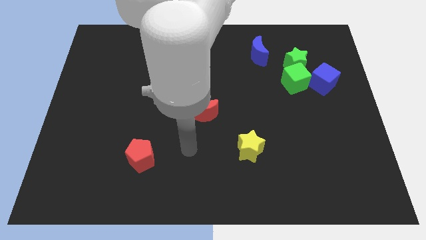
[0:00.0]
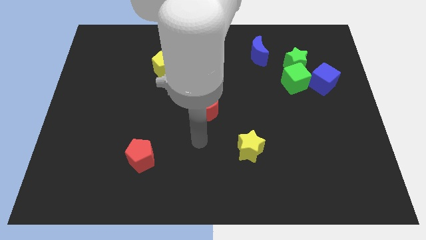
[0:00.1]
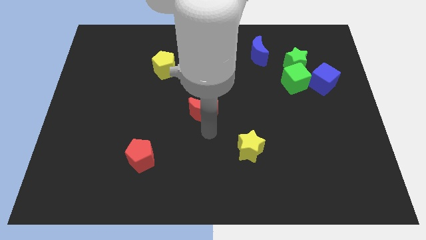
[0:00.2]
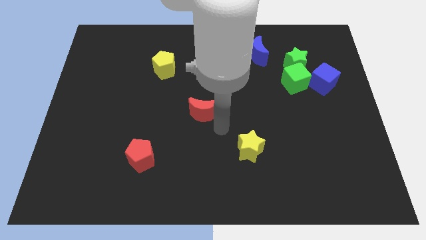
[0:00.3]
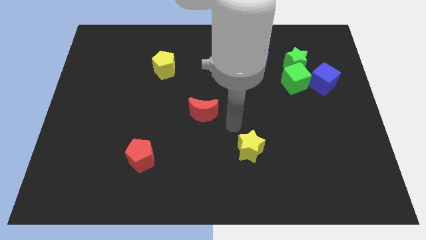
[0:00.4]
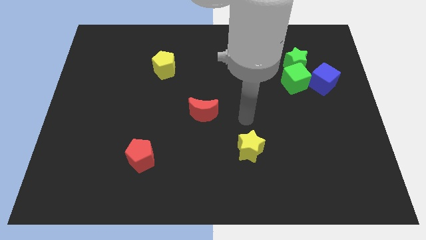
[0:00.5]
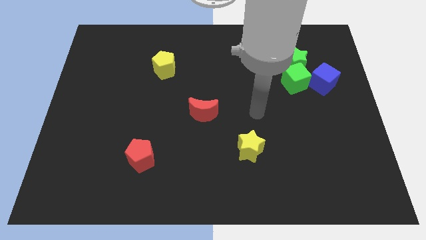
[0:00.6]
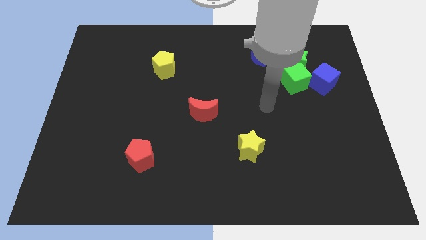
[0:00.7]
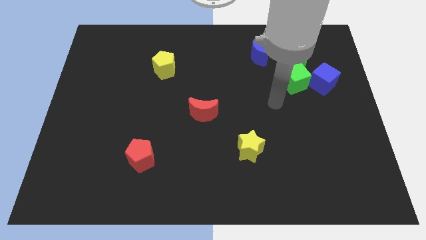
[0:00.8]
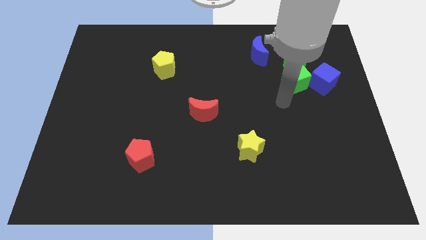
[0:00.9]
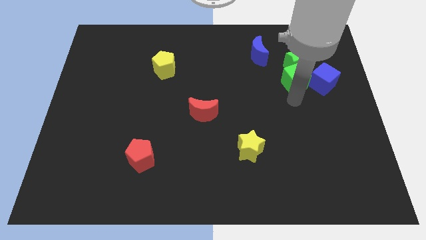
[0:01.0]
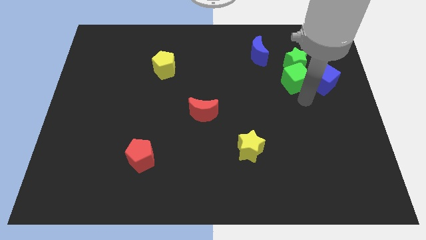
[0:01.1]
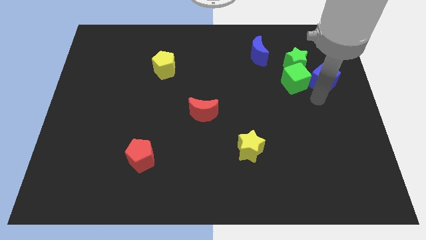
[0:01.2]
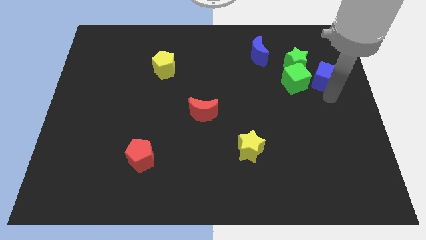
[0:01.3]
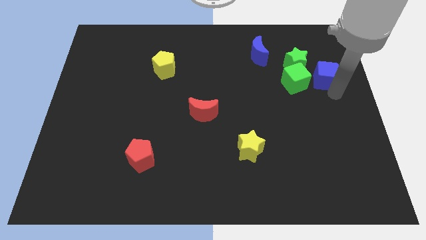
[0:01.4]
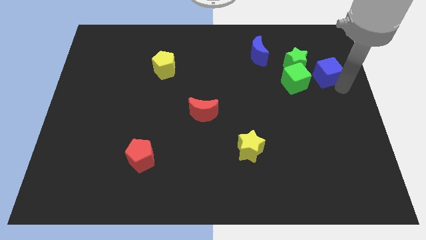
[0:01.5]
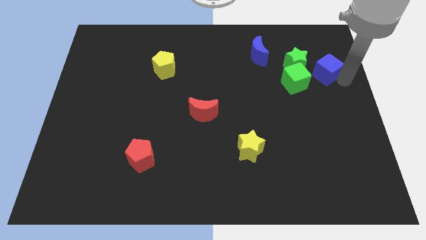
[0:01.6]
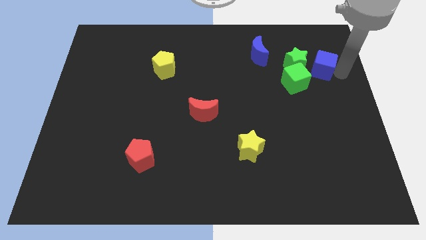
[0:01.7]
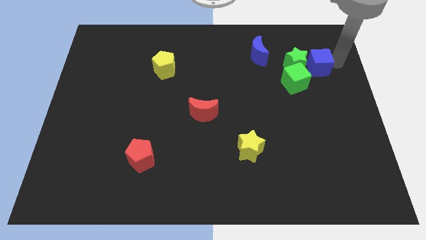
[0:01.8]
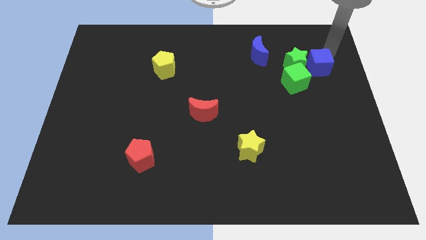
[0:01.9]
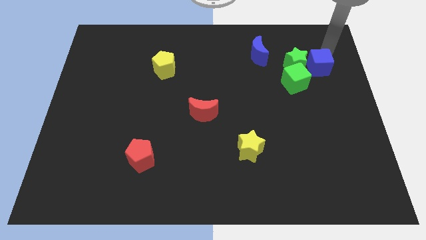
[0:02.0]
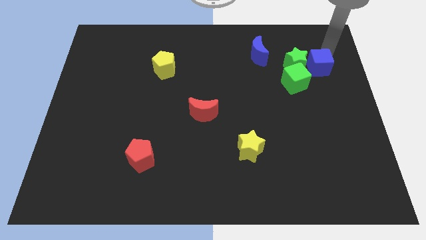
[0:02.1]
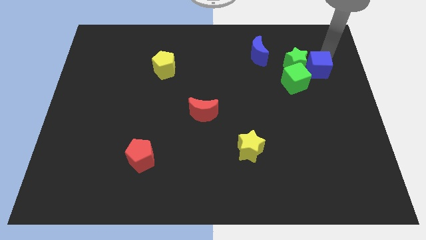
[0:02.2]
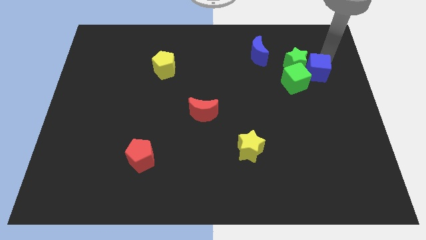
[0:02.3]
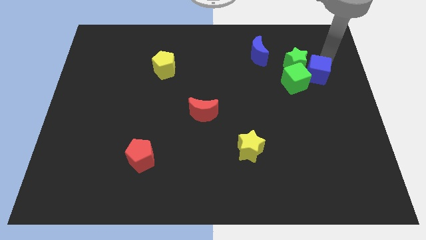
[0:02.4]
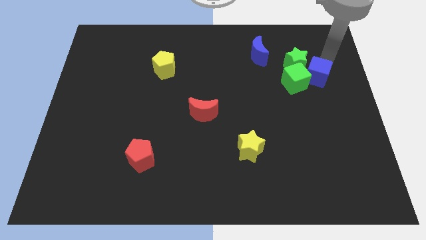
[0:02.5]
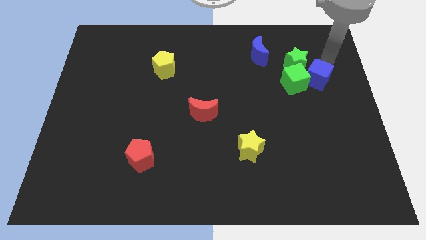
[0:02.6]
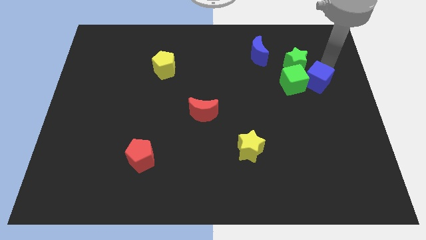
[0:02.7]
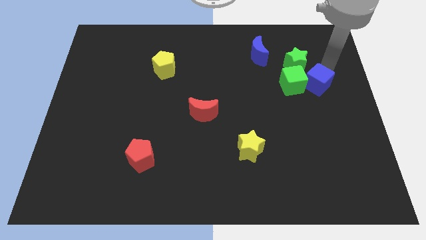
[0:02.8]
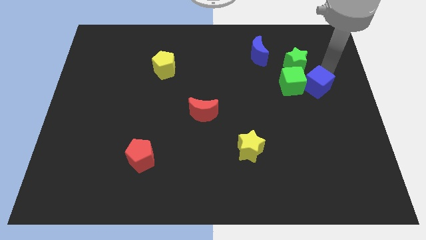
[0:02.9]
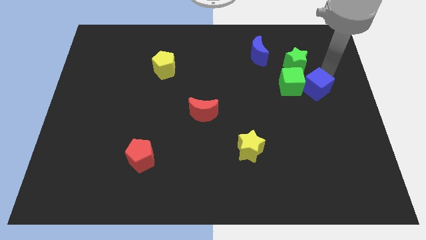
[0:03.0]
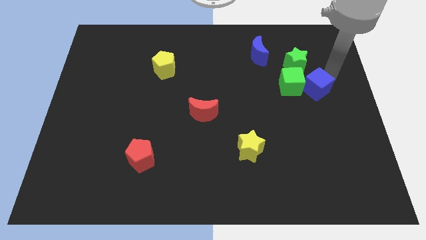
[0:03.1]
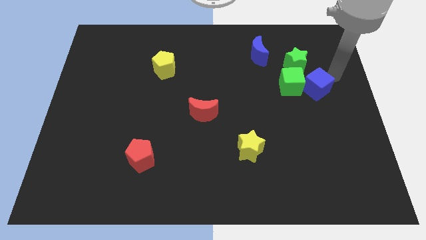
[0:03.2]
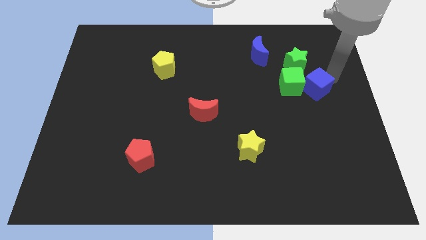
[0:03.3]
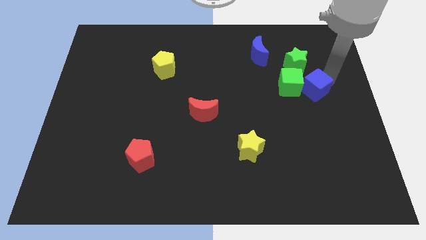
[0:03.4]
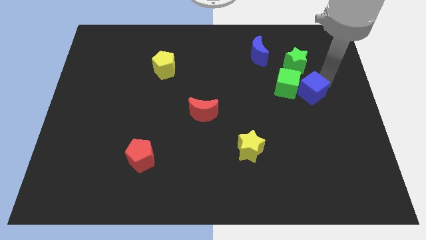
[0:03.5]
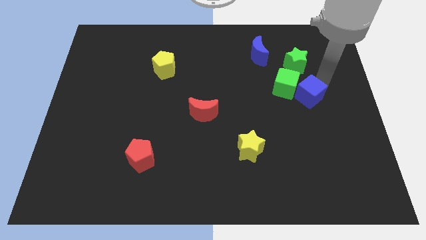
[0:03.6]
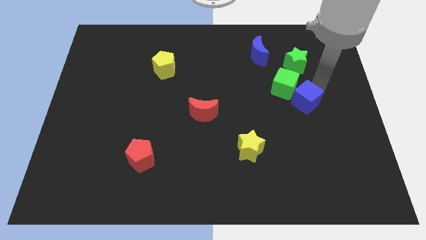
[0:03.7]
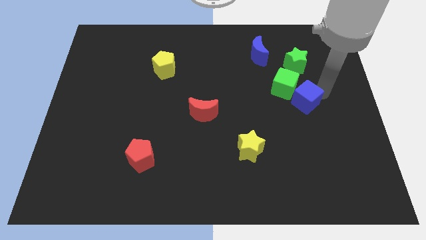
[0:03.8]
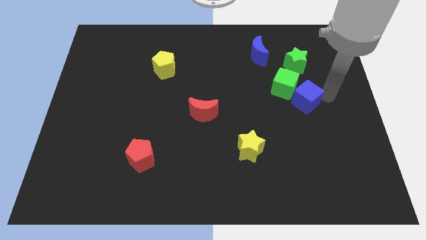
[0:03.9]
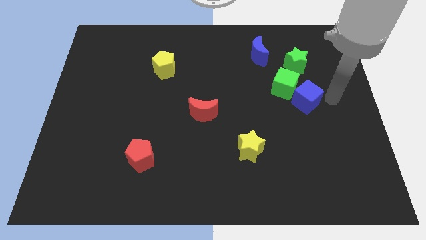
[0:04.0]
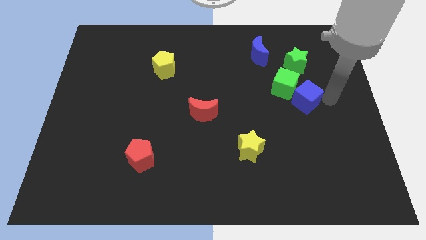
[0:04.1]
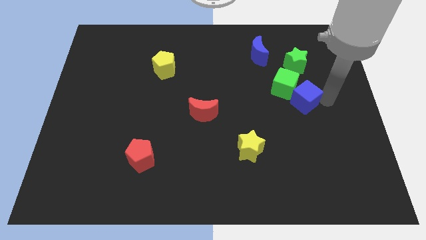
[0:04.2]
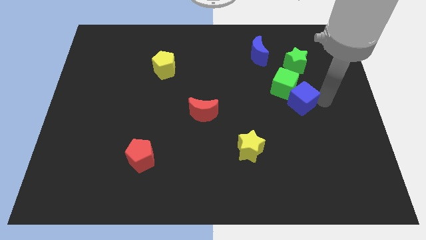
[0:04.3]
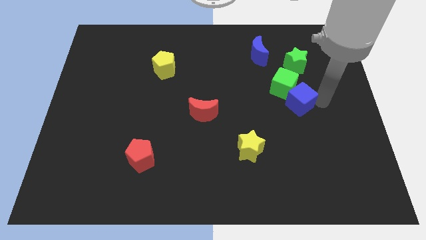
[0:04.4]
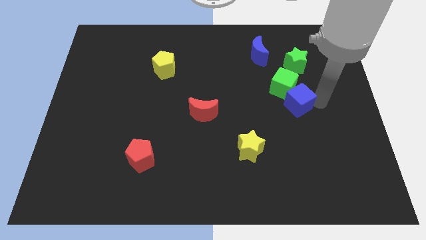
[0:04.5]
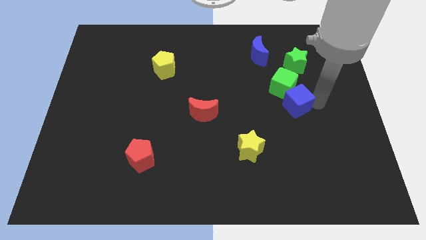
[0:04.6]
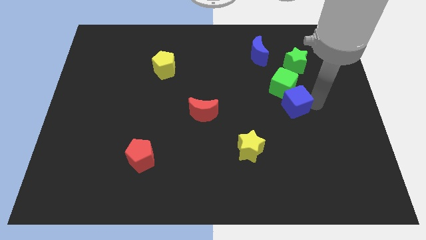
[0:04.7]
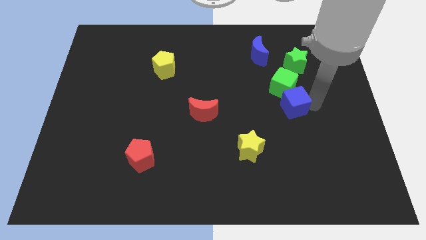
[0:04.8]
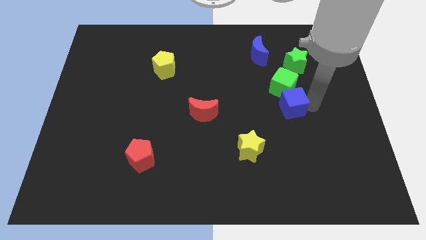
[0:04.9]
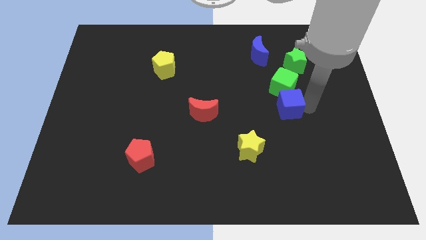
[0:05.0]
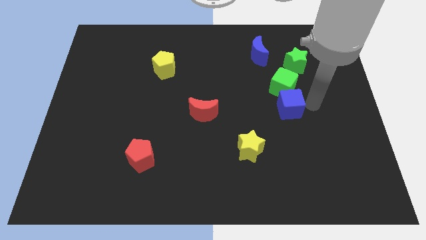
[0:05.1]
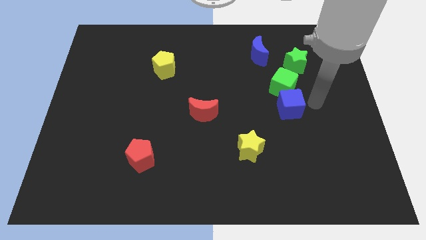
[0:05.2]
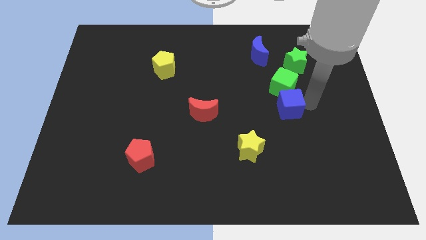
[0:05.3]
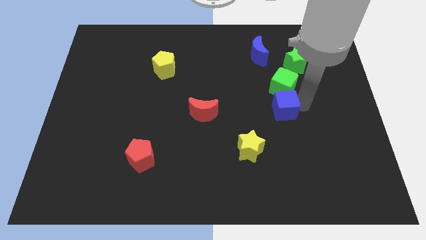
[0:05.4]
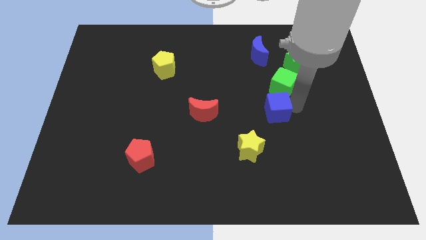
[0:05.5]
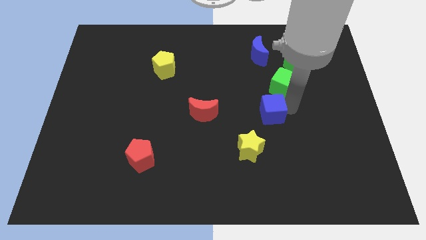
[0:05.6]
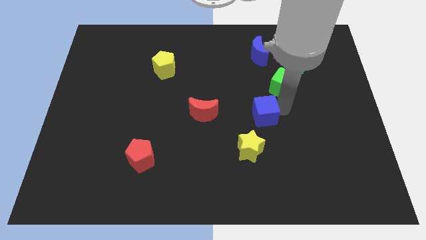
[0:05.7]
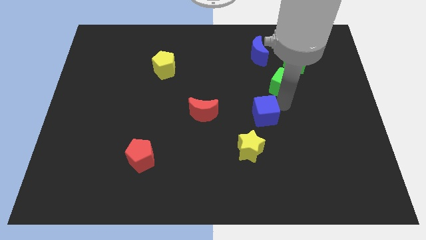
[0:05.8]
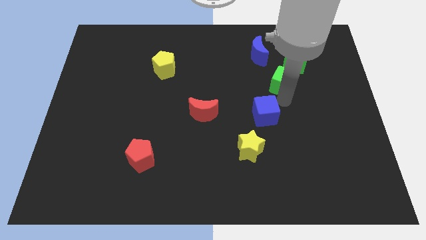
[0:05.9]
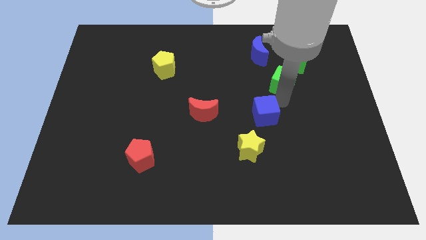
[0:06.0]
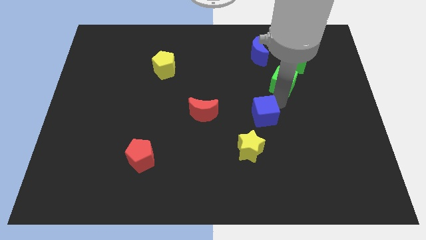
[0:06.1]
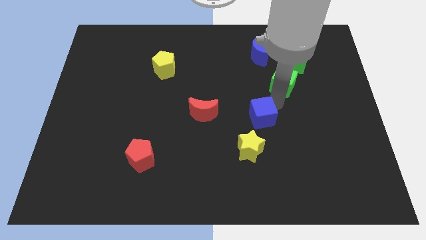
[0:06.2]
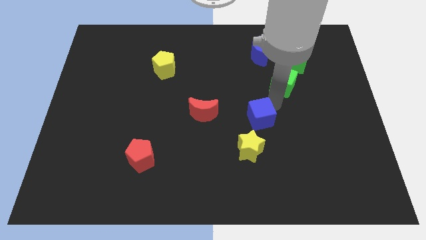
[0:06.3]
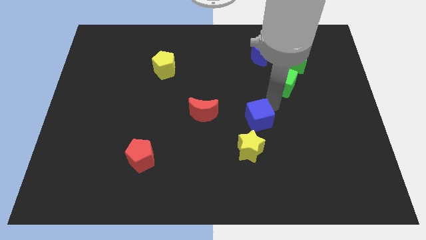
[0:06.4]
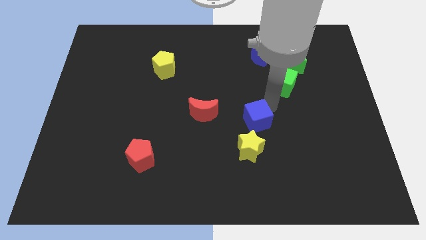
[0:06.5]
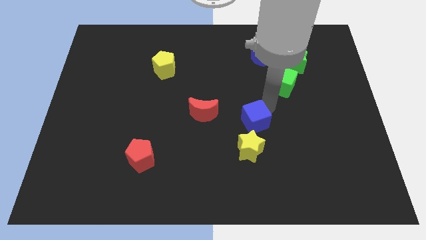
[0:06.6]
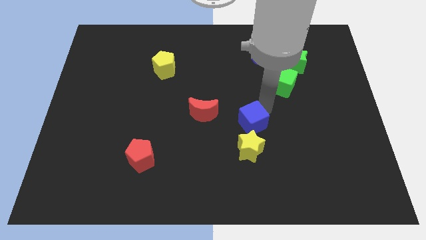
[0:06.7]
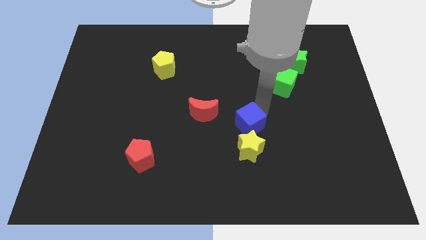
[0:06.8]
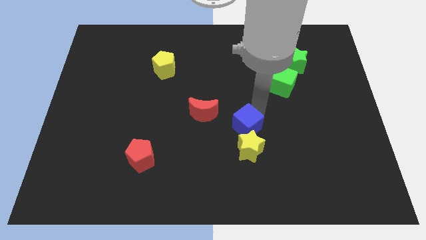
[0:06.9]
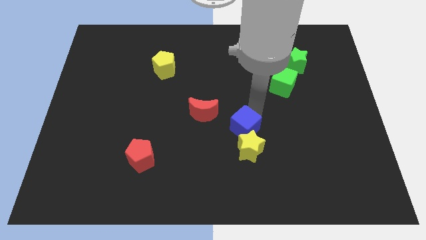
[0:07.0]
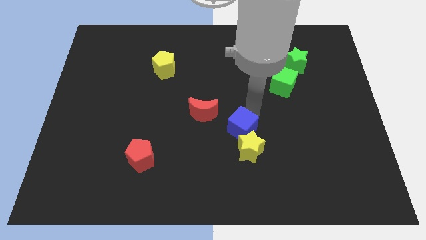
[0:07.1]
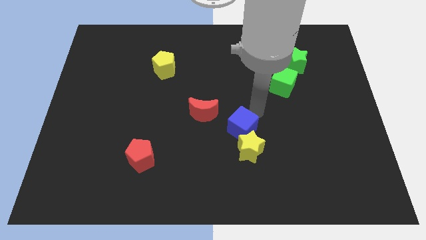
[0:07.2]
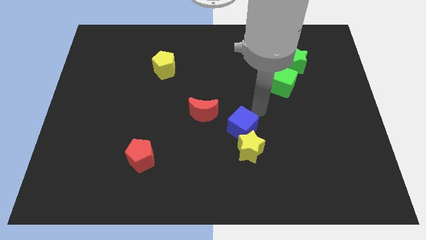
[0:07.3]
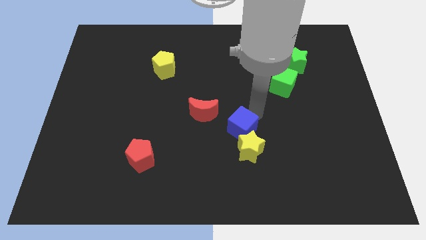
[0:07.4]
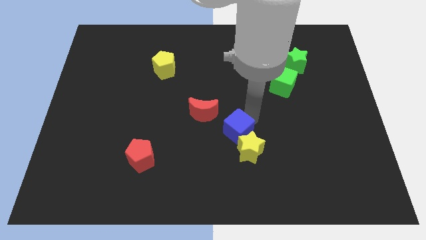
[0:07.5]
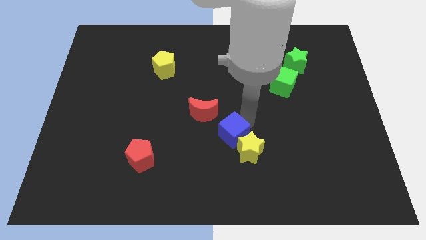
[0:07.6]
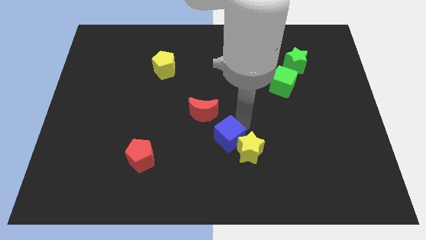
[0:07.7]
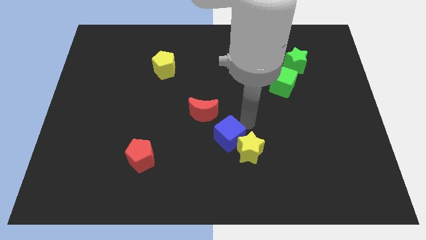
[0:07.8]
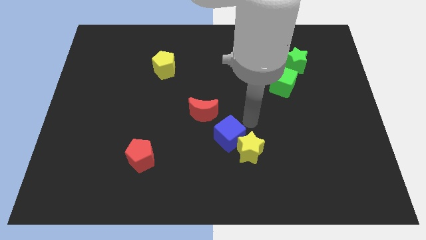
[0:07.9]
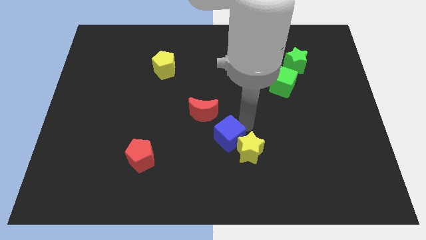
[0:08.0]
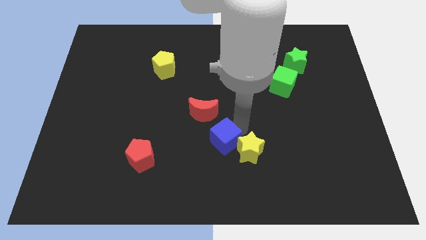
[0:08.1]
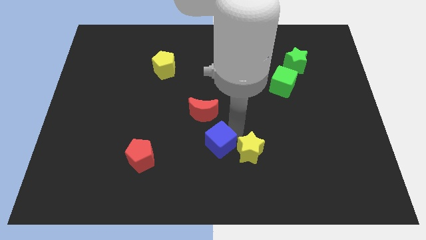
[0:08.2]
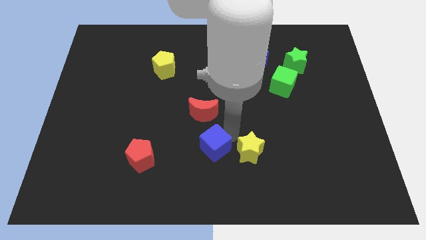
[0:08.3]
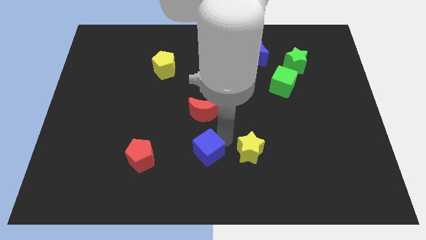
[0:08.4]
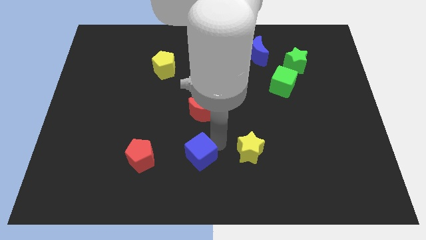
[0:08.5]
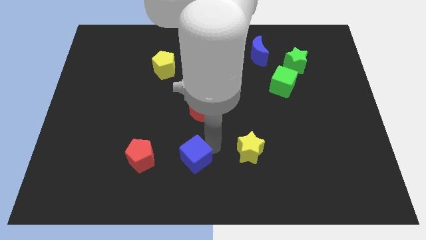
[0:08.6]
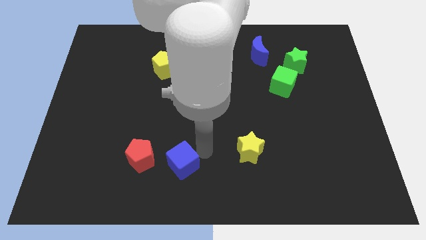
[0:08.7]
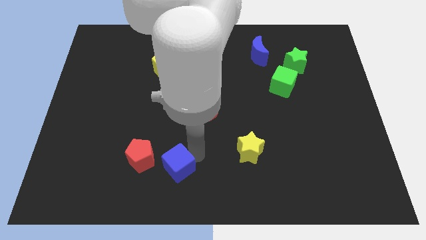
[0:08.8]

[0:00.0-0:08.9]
move the blue cube to the bottom right of the red pentagon
